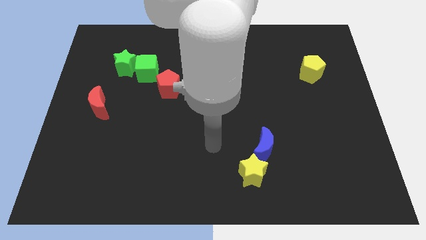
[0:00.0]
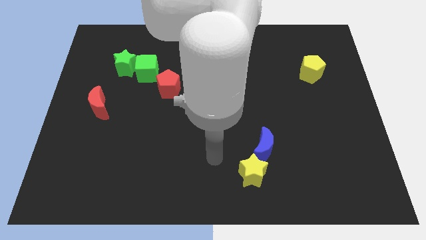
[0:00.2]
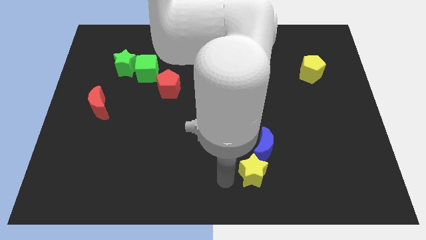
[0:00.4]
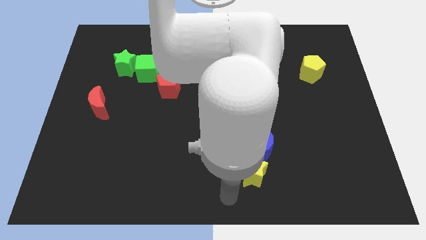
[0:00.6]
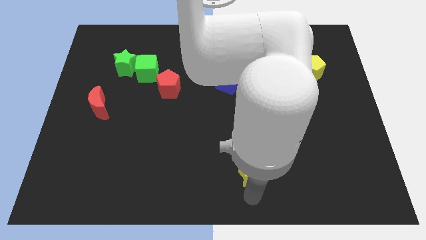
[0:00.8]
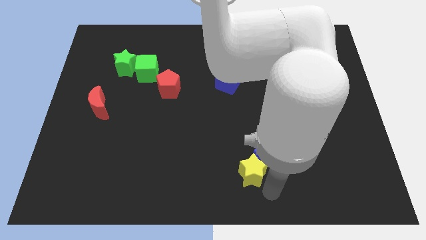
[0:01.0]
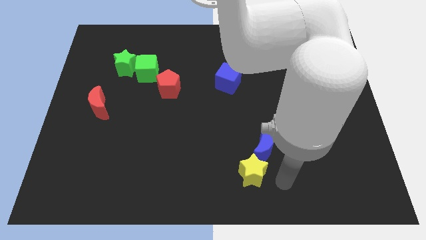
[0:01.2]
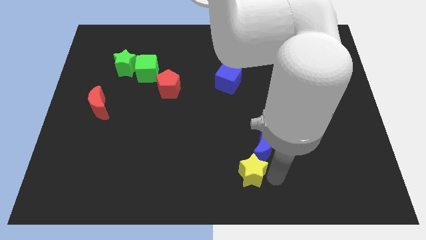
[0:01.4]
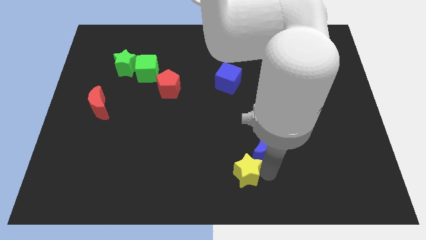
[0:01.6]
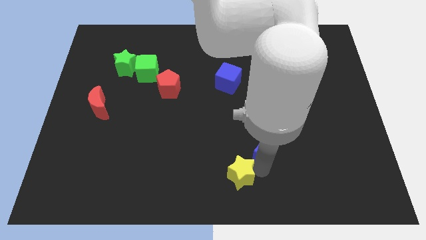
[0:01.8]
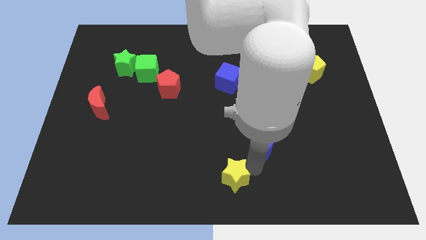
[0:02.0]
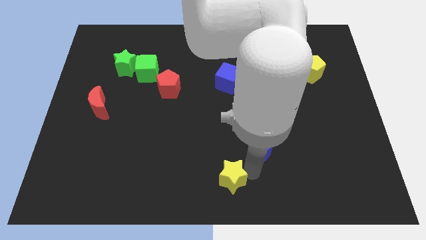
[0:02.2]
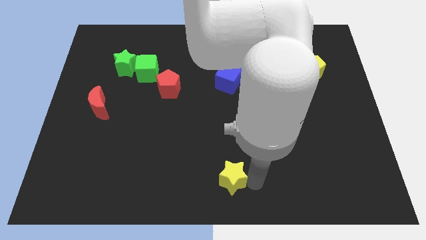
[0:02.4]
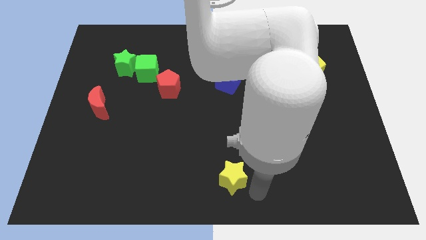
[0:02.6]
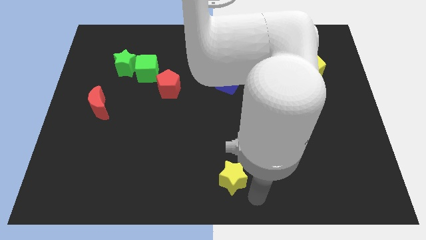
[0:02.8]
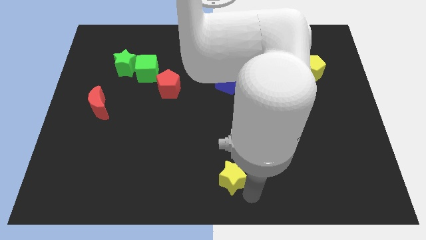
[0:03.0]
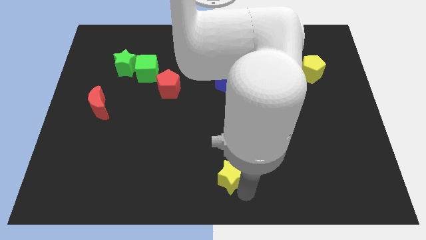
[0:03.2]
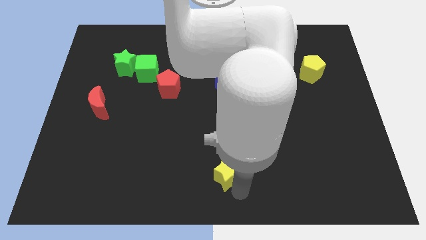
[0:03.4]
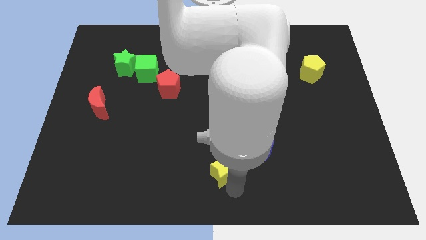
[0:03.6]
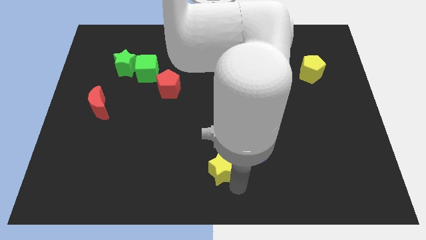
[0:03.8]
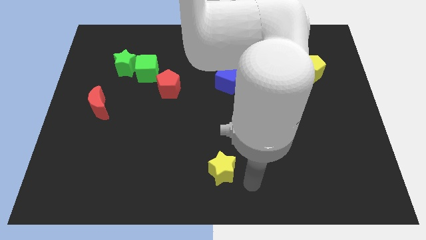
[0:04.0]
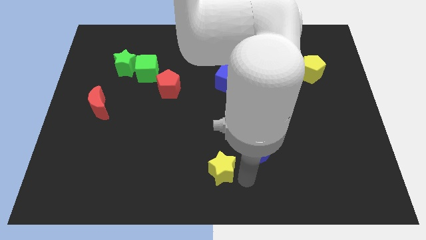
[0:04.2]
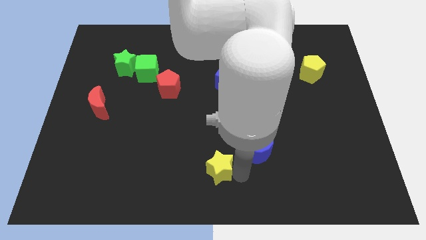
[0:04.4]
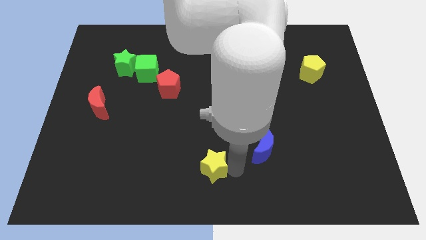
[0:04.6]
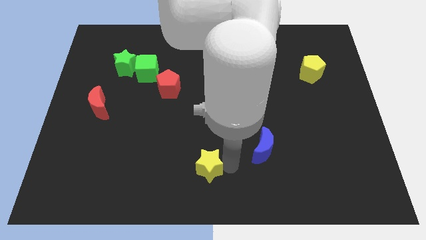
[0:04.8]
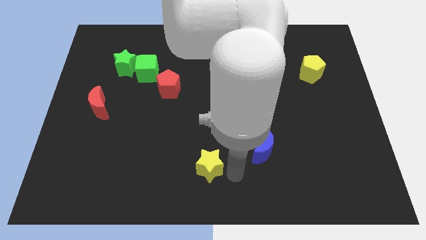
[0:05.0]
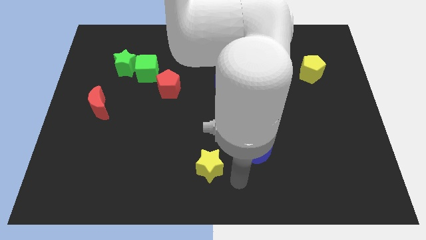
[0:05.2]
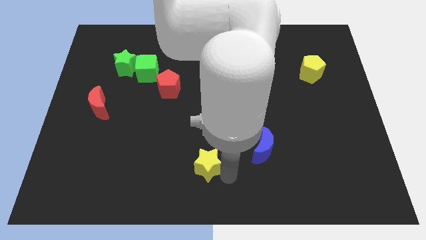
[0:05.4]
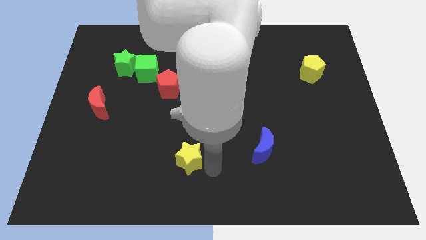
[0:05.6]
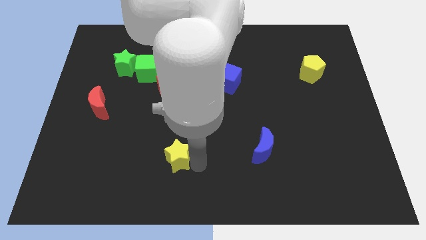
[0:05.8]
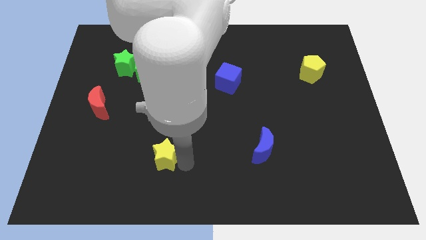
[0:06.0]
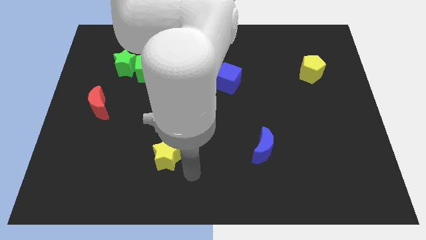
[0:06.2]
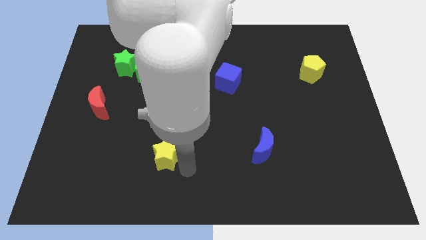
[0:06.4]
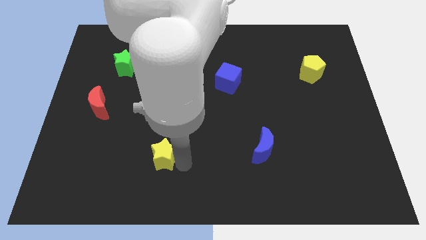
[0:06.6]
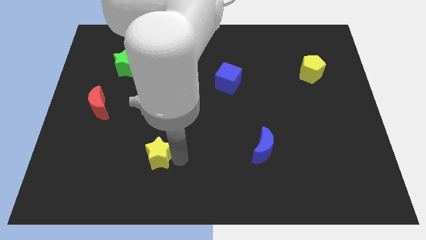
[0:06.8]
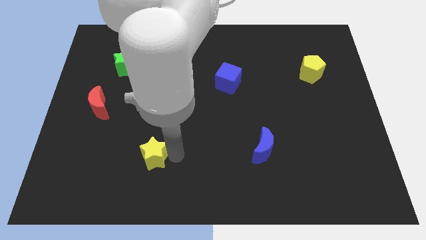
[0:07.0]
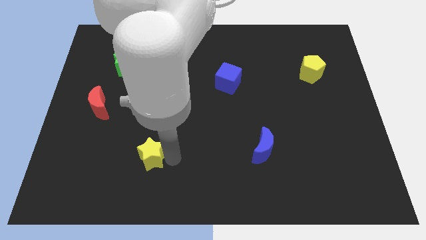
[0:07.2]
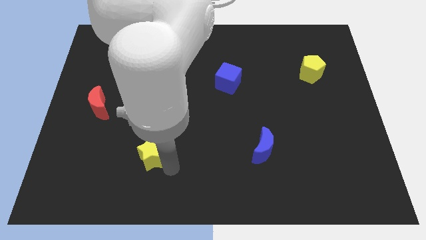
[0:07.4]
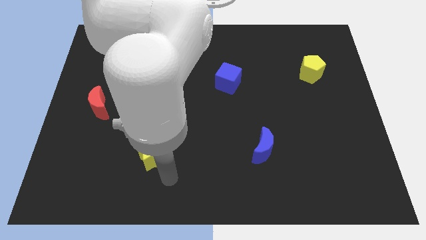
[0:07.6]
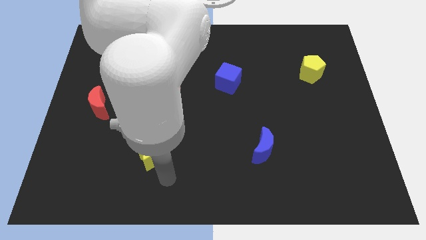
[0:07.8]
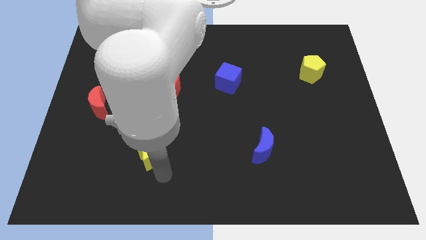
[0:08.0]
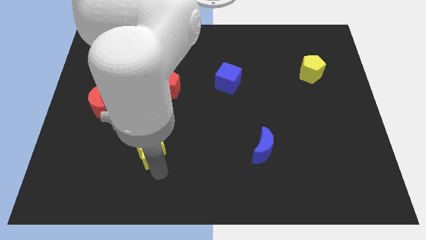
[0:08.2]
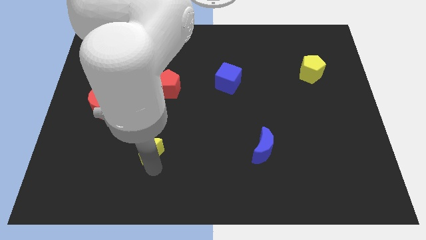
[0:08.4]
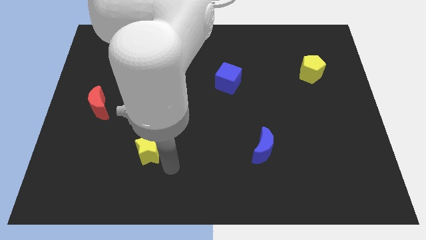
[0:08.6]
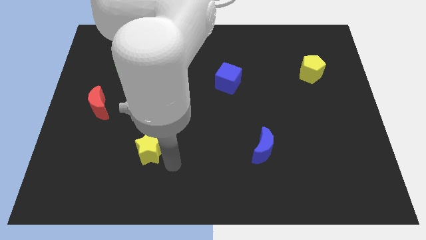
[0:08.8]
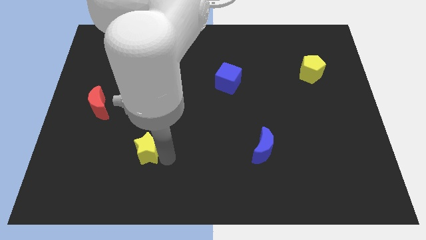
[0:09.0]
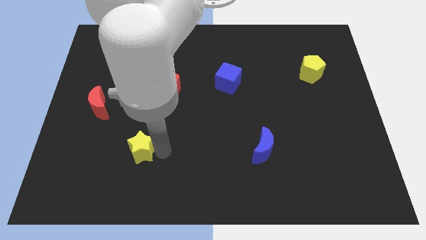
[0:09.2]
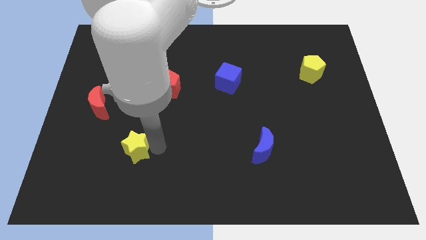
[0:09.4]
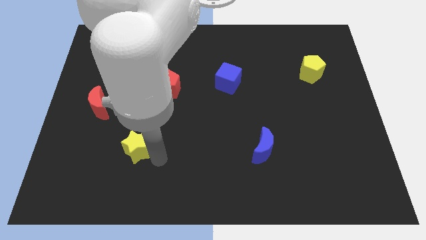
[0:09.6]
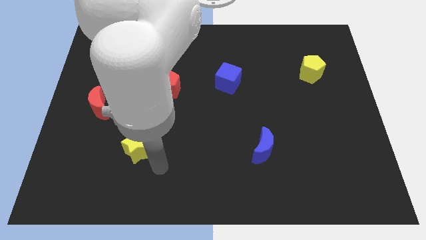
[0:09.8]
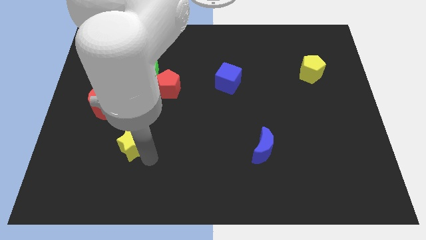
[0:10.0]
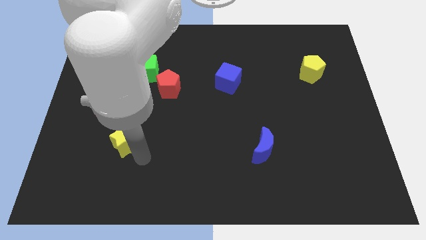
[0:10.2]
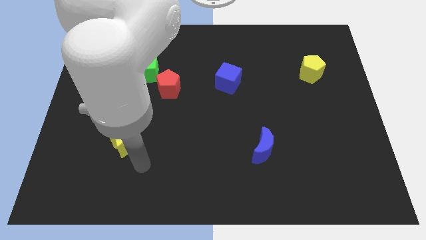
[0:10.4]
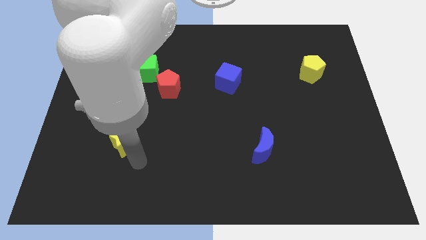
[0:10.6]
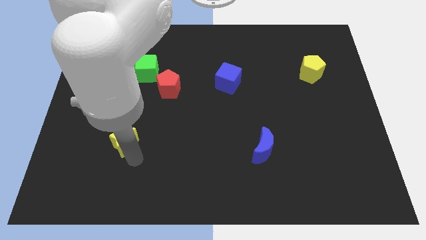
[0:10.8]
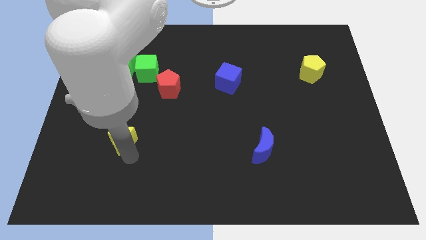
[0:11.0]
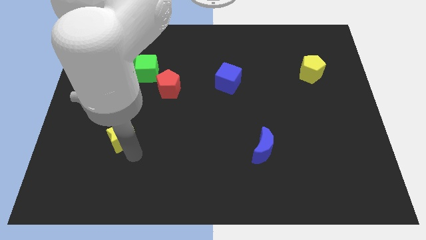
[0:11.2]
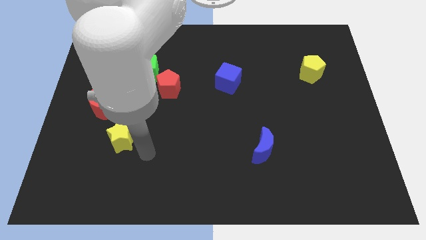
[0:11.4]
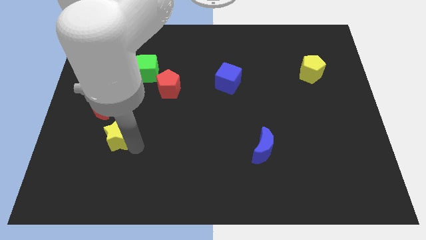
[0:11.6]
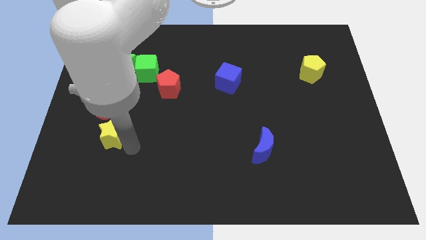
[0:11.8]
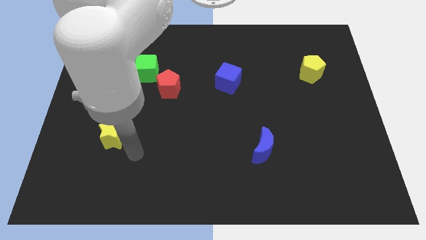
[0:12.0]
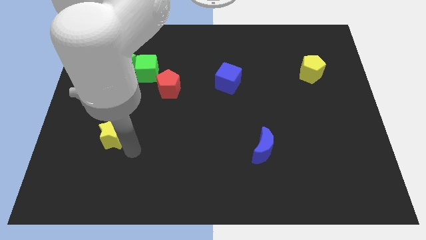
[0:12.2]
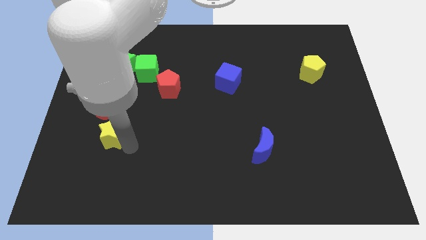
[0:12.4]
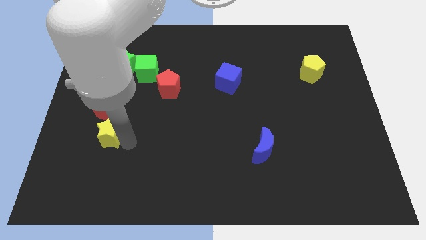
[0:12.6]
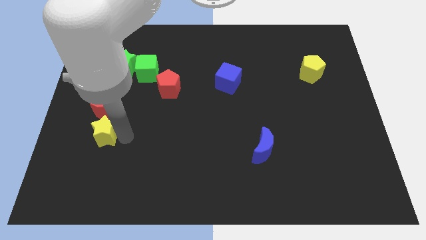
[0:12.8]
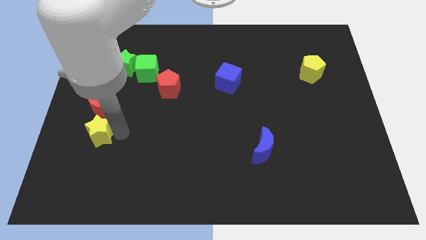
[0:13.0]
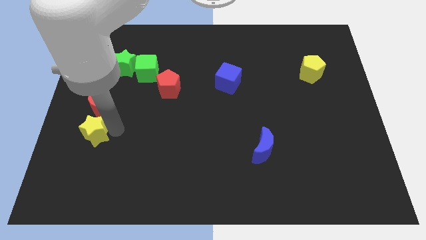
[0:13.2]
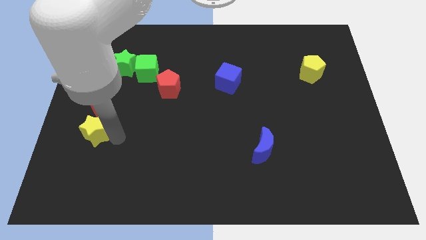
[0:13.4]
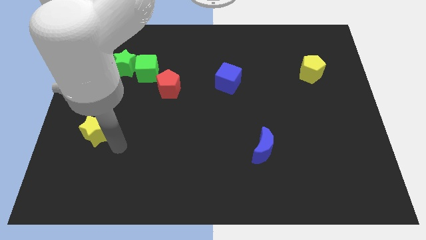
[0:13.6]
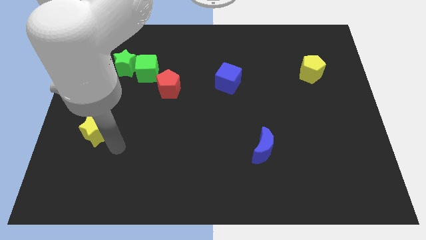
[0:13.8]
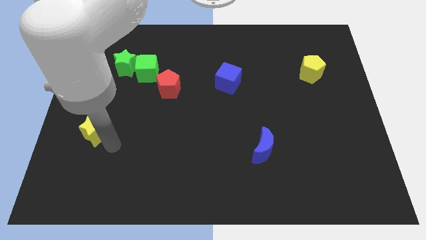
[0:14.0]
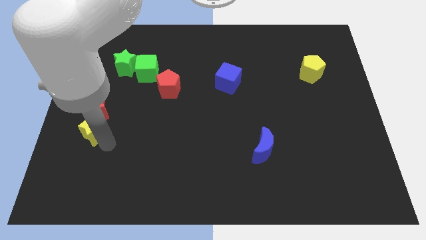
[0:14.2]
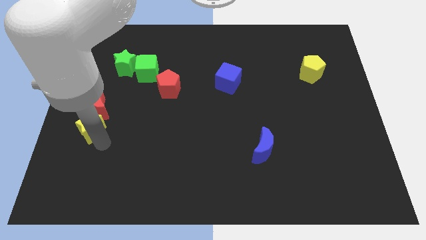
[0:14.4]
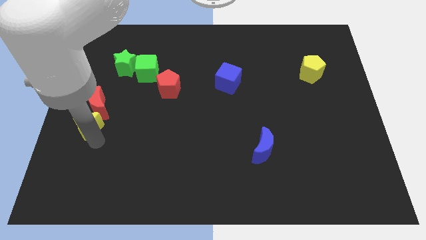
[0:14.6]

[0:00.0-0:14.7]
push the yellow star to the left side
